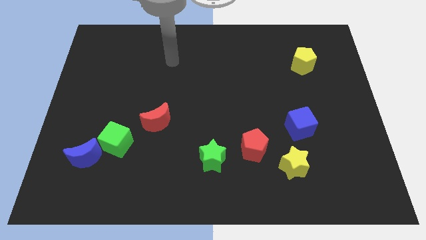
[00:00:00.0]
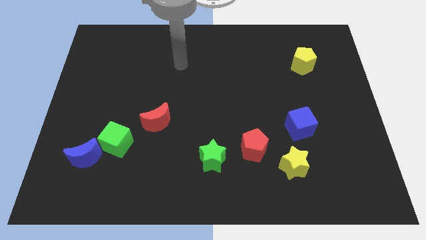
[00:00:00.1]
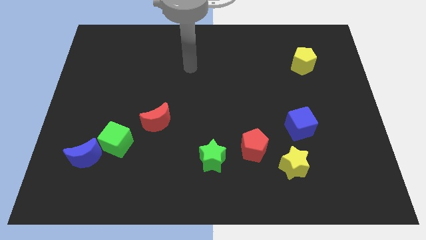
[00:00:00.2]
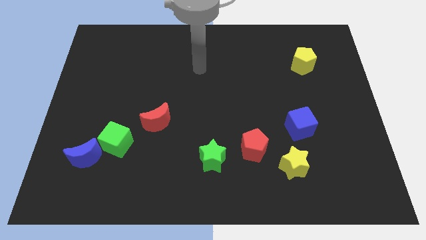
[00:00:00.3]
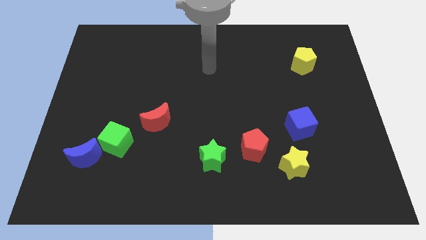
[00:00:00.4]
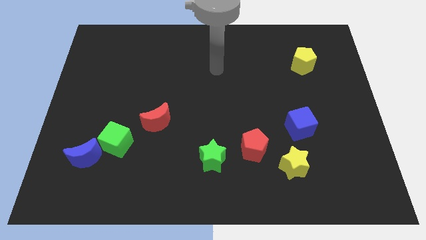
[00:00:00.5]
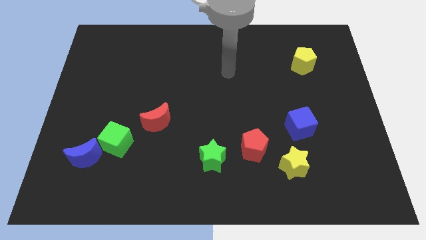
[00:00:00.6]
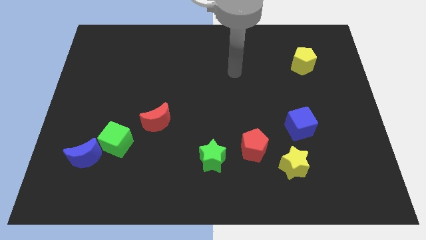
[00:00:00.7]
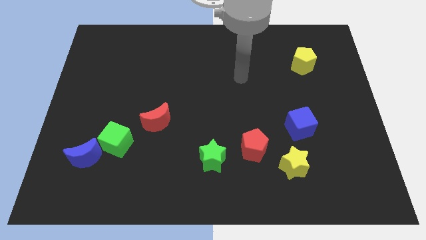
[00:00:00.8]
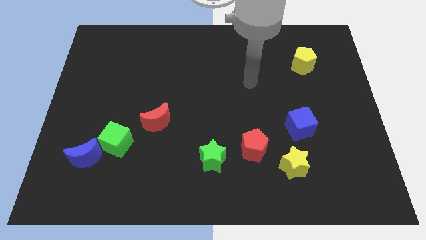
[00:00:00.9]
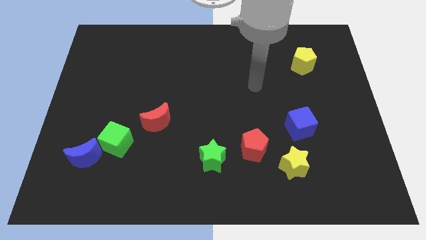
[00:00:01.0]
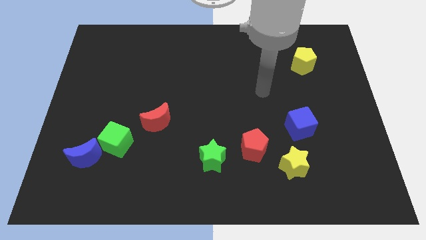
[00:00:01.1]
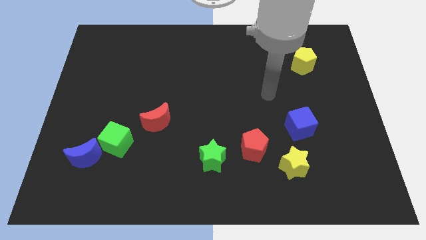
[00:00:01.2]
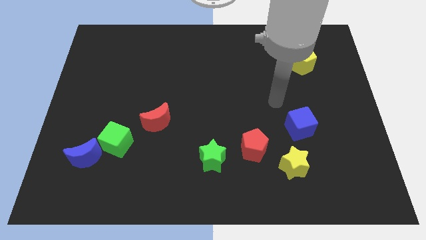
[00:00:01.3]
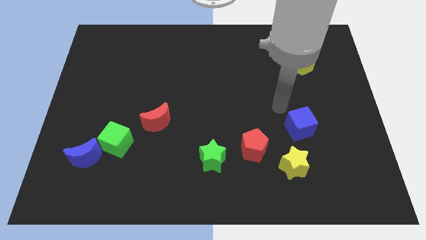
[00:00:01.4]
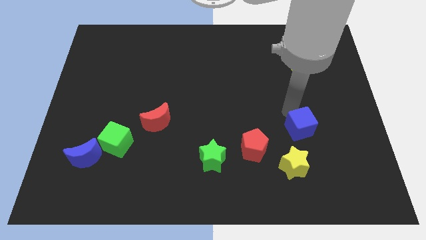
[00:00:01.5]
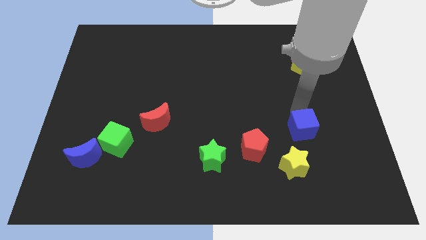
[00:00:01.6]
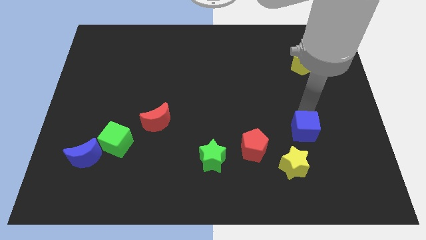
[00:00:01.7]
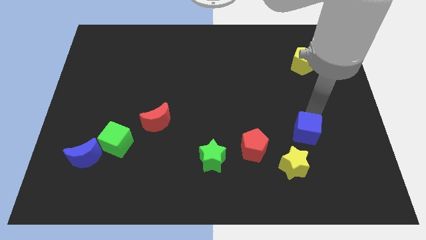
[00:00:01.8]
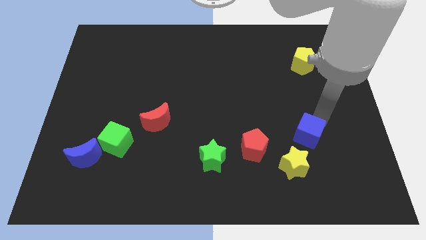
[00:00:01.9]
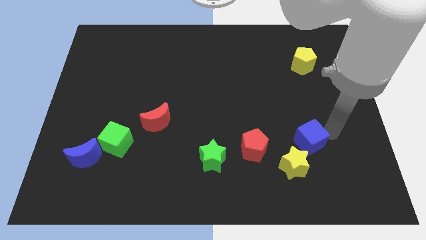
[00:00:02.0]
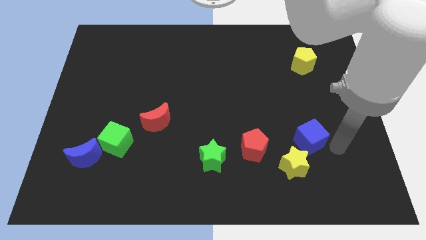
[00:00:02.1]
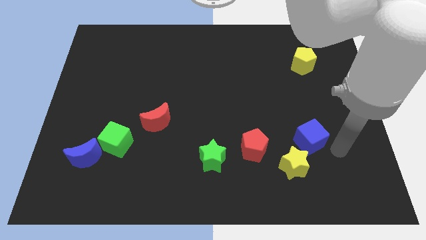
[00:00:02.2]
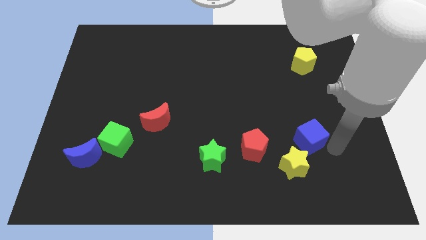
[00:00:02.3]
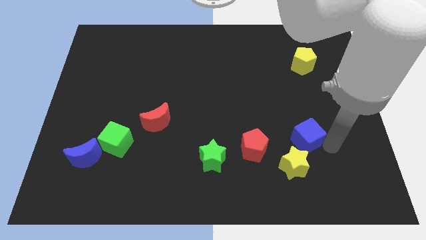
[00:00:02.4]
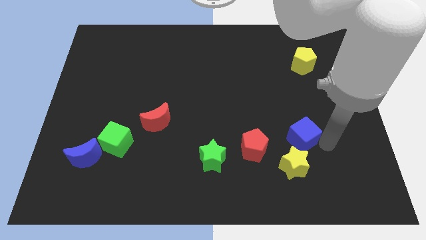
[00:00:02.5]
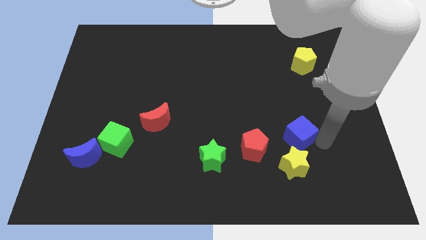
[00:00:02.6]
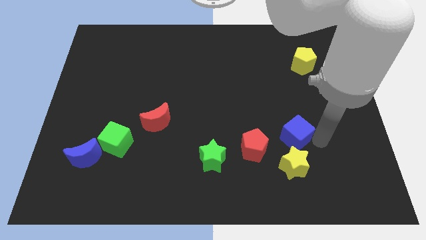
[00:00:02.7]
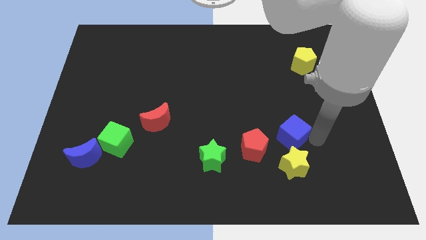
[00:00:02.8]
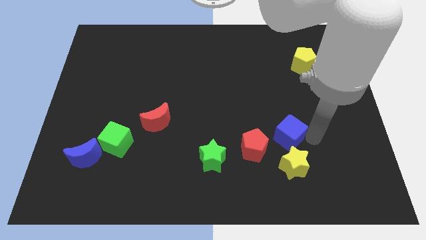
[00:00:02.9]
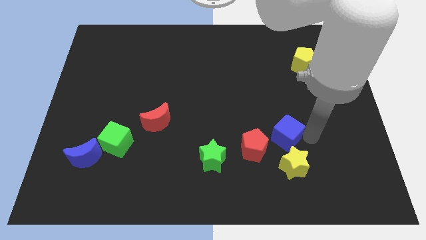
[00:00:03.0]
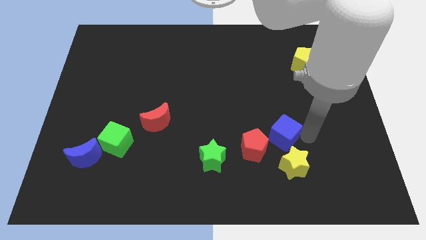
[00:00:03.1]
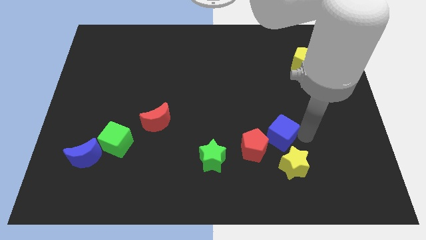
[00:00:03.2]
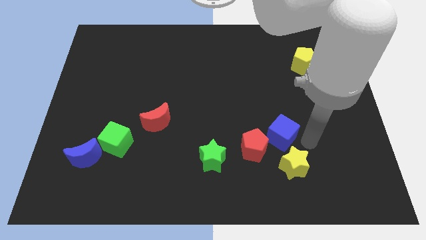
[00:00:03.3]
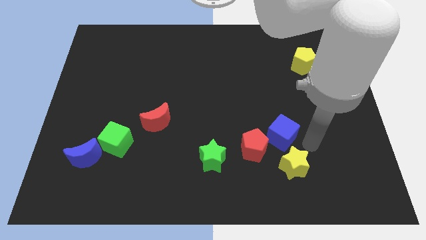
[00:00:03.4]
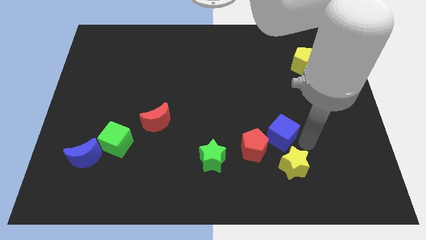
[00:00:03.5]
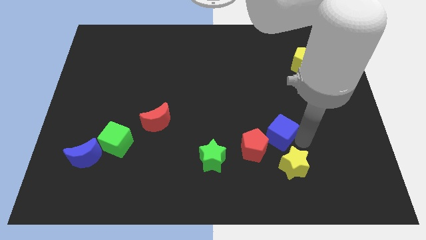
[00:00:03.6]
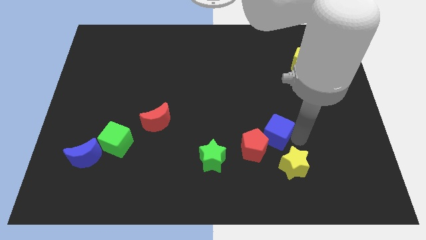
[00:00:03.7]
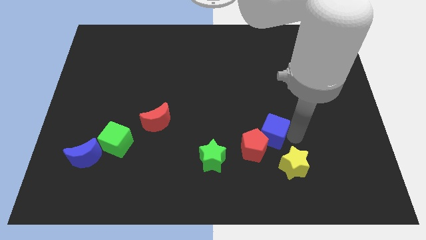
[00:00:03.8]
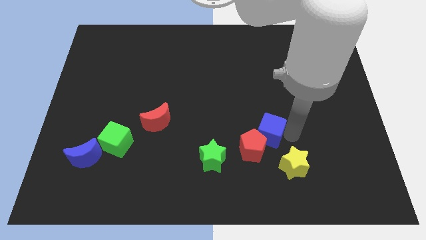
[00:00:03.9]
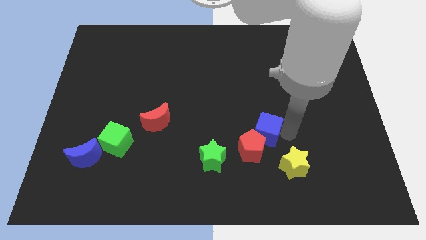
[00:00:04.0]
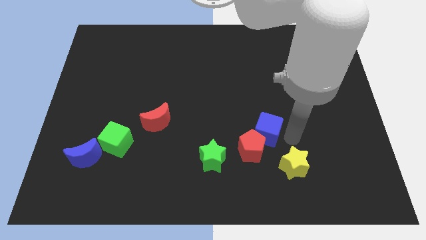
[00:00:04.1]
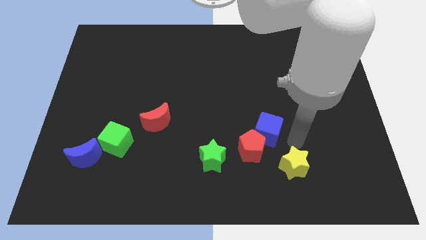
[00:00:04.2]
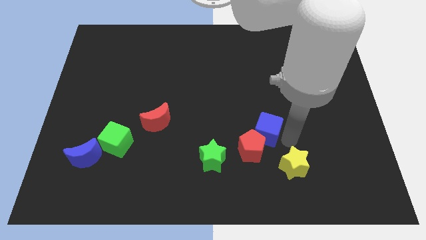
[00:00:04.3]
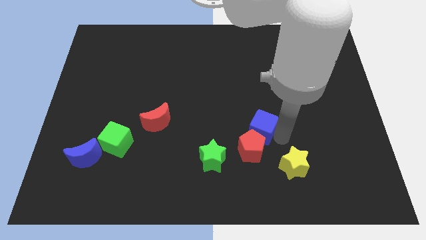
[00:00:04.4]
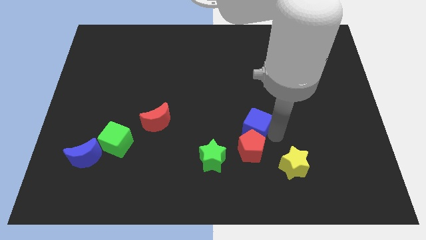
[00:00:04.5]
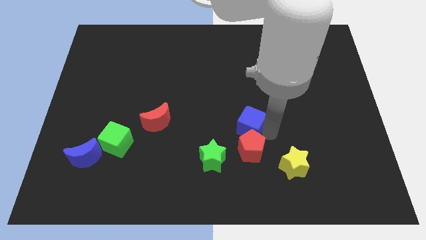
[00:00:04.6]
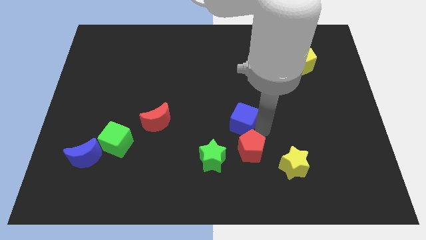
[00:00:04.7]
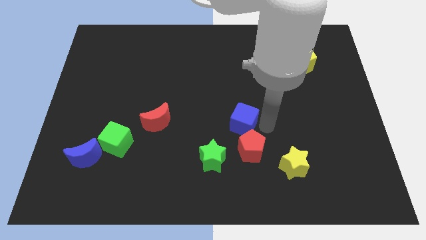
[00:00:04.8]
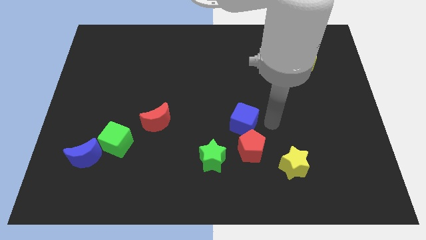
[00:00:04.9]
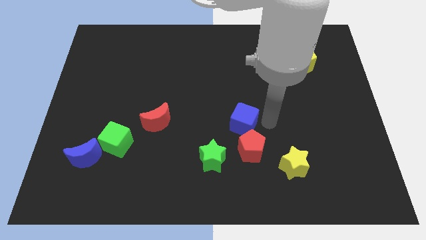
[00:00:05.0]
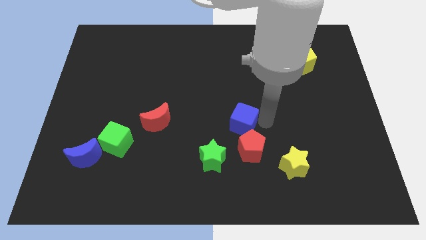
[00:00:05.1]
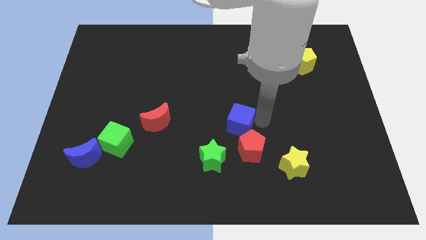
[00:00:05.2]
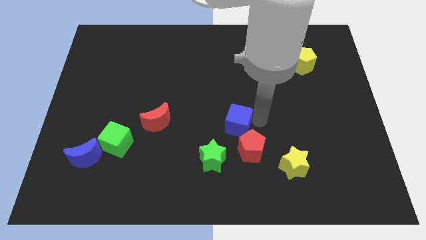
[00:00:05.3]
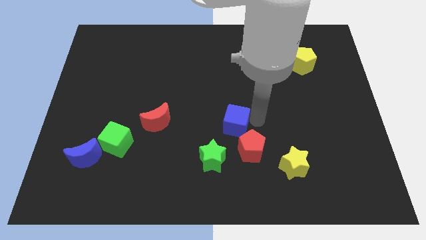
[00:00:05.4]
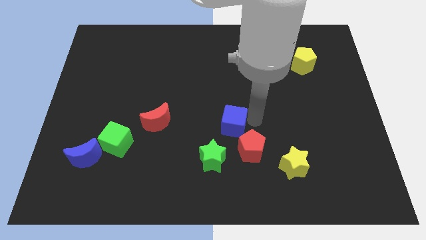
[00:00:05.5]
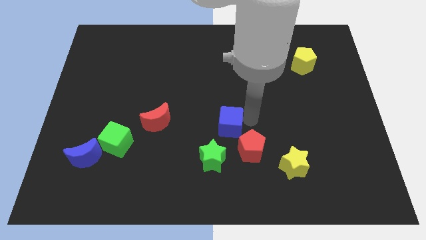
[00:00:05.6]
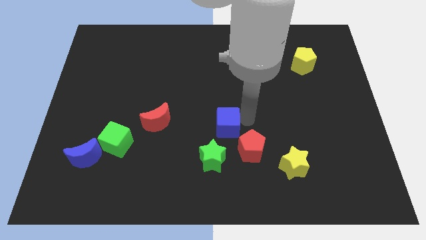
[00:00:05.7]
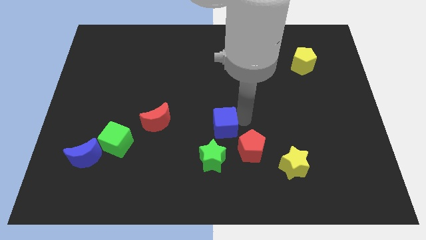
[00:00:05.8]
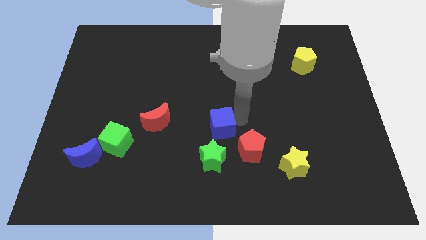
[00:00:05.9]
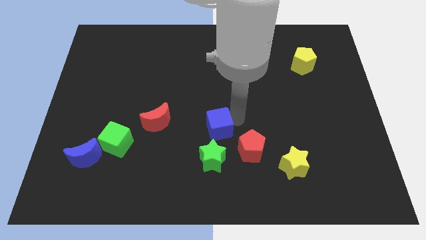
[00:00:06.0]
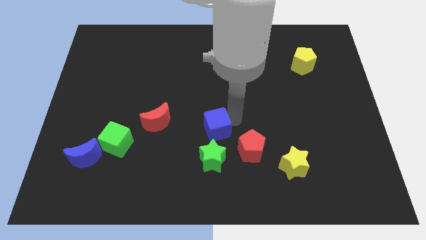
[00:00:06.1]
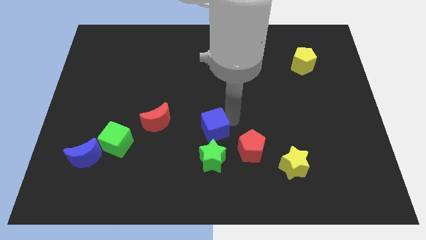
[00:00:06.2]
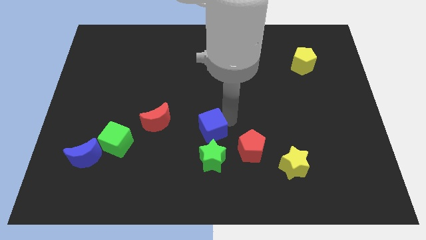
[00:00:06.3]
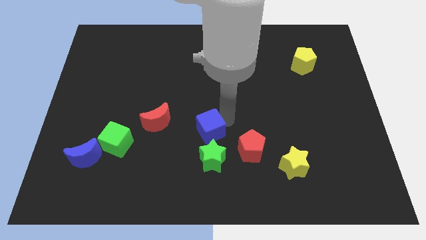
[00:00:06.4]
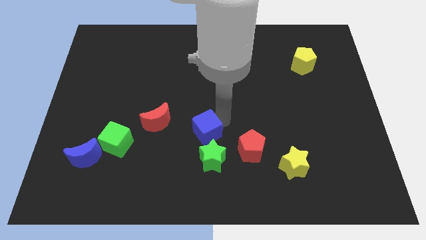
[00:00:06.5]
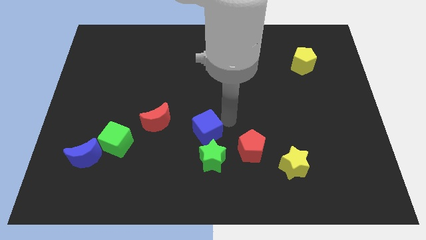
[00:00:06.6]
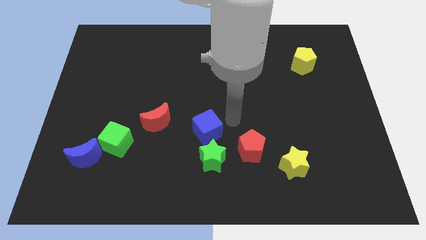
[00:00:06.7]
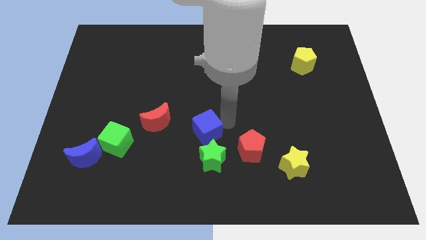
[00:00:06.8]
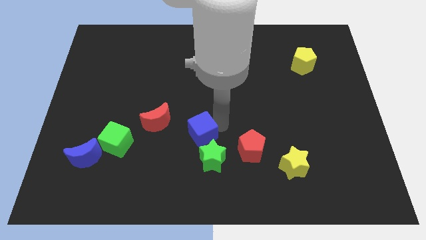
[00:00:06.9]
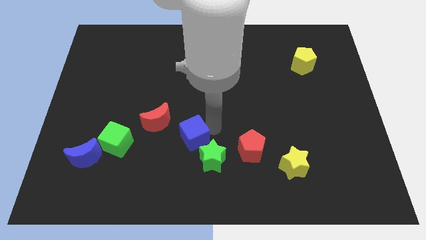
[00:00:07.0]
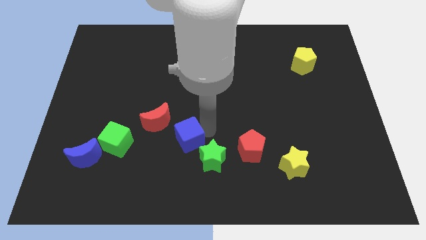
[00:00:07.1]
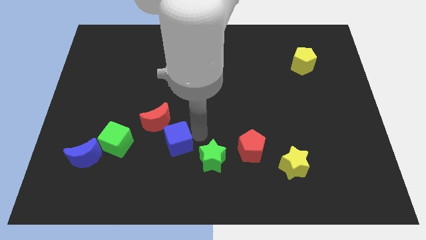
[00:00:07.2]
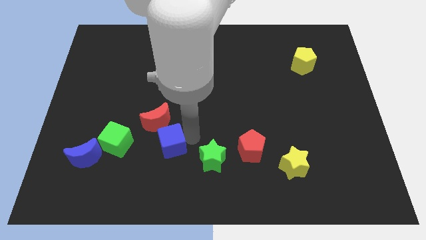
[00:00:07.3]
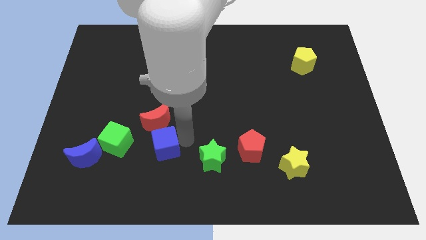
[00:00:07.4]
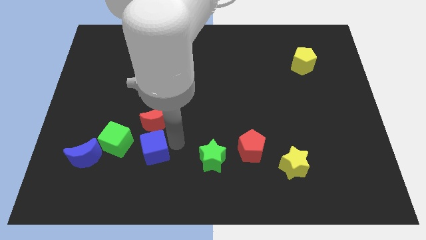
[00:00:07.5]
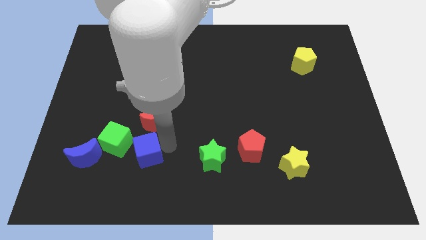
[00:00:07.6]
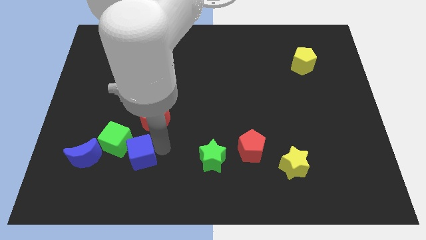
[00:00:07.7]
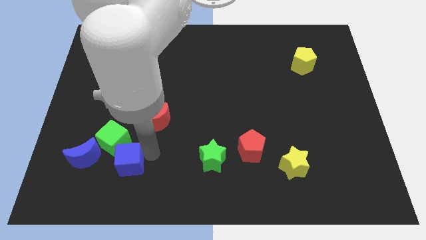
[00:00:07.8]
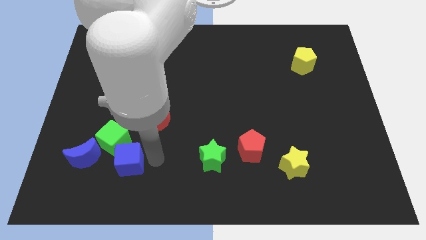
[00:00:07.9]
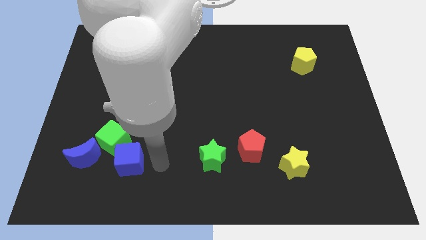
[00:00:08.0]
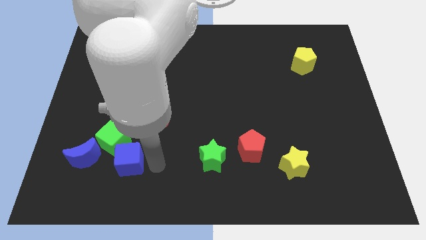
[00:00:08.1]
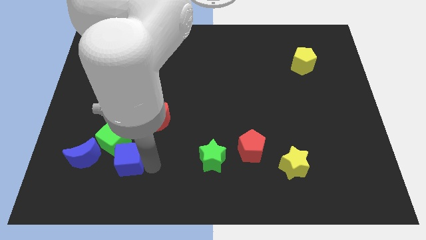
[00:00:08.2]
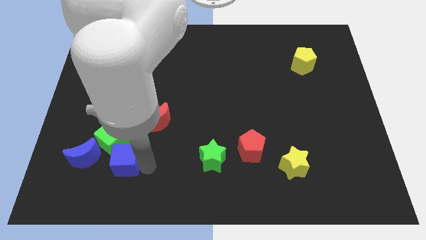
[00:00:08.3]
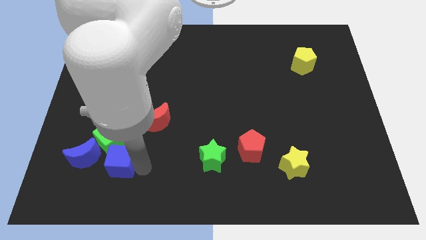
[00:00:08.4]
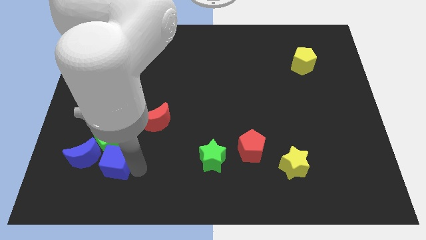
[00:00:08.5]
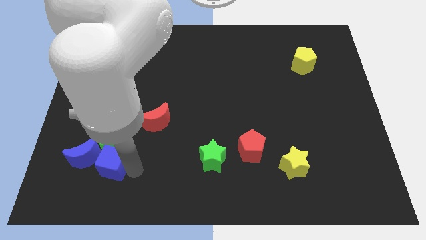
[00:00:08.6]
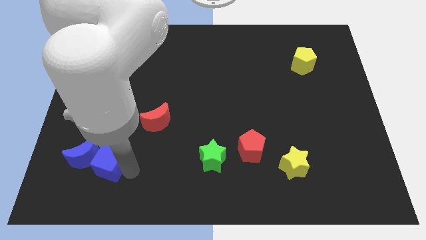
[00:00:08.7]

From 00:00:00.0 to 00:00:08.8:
push the blue cube to the blue moon
